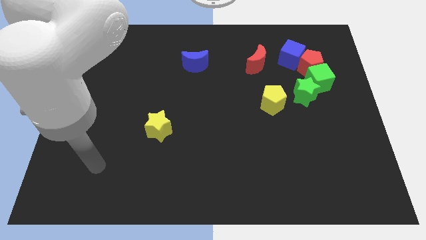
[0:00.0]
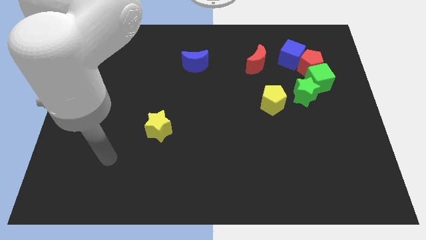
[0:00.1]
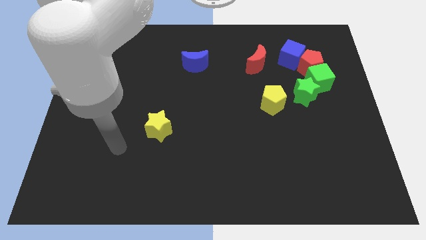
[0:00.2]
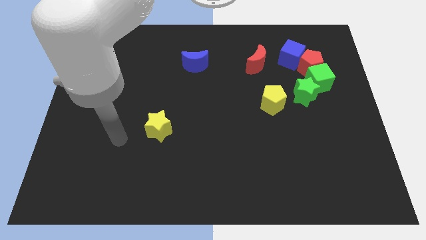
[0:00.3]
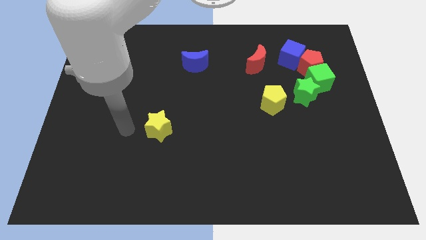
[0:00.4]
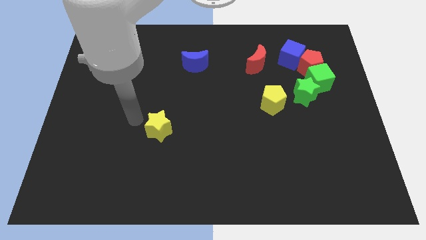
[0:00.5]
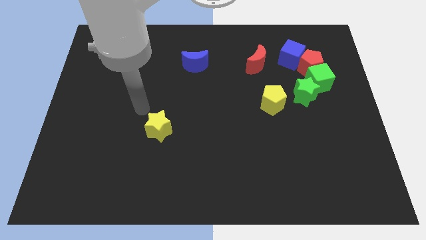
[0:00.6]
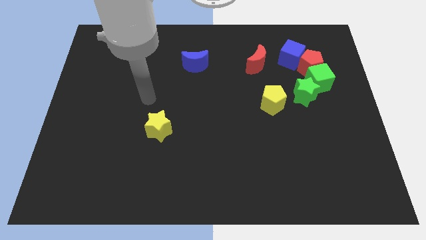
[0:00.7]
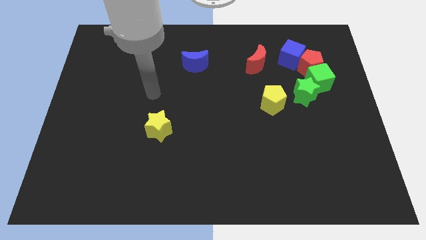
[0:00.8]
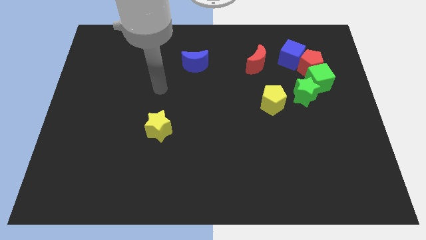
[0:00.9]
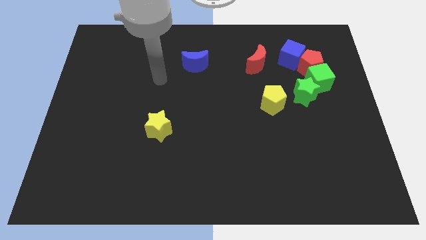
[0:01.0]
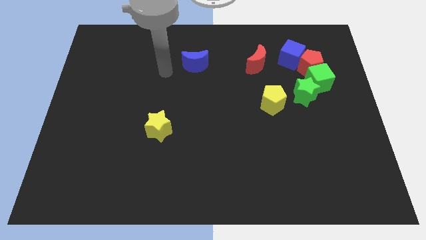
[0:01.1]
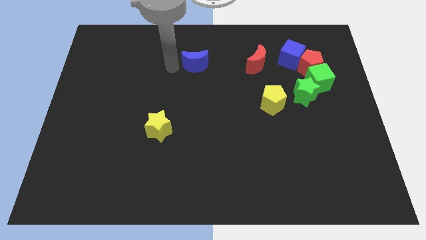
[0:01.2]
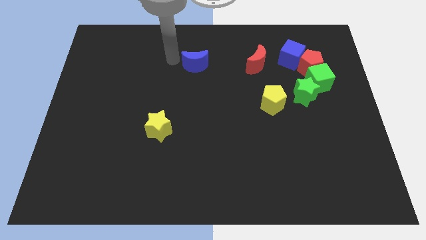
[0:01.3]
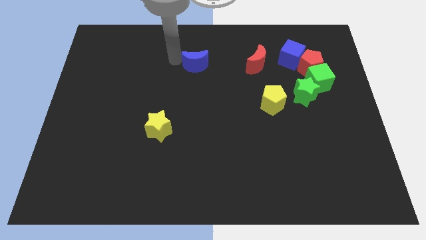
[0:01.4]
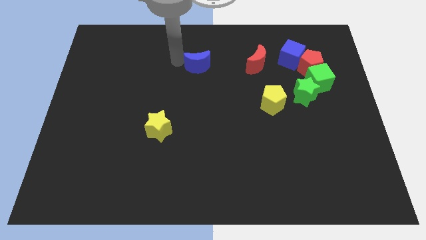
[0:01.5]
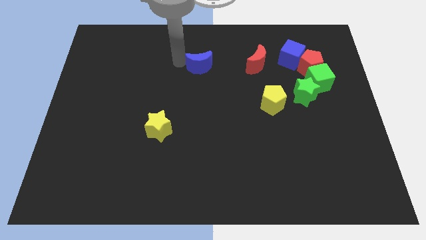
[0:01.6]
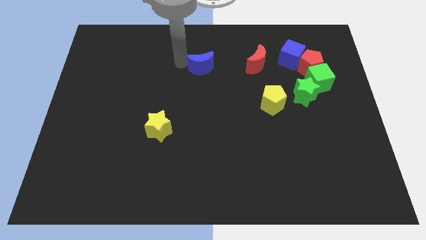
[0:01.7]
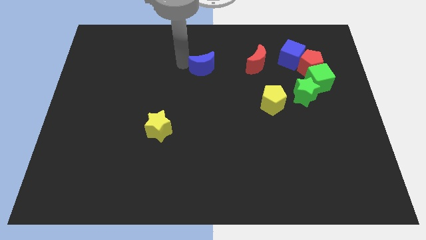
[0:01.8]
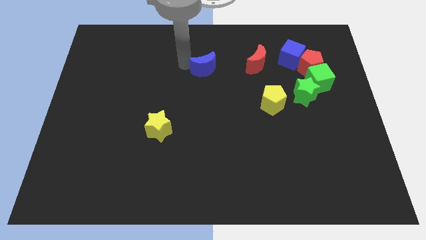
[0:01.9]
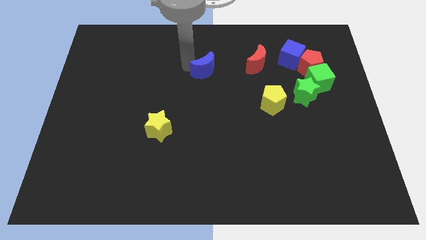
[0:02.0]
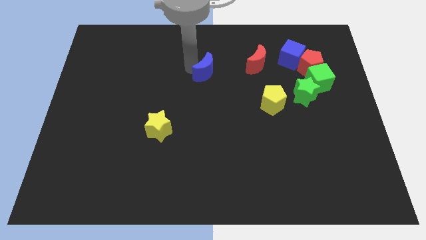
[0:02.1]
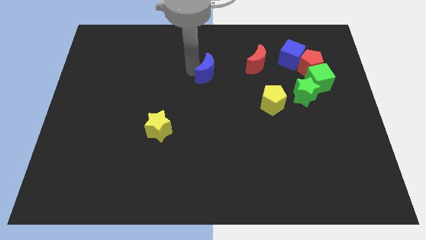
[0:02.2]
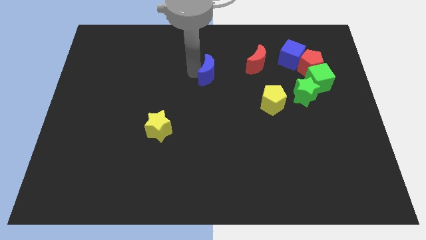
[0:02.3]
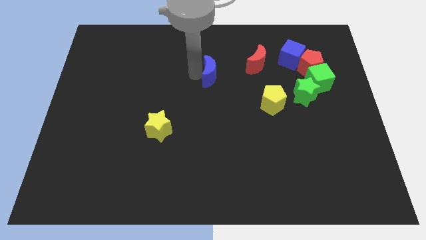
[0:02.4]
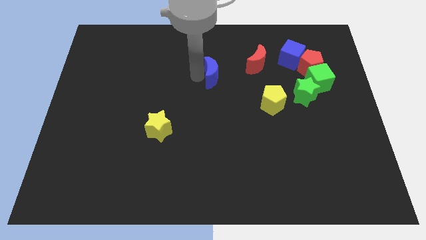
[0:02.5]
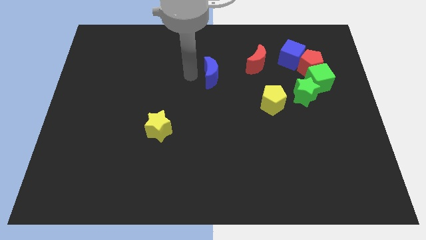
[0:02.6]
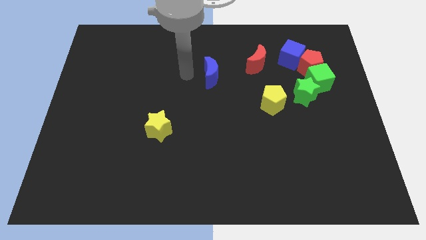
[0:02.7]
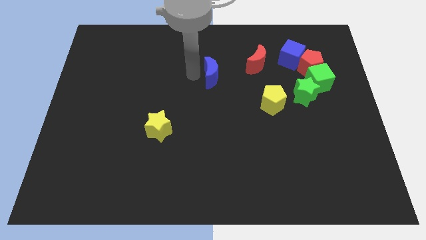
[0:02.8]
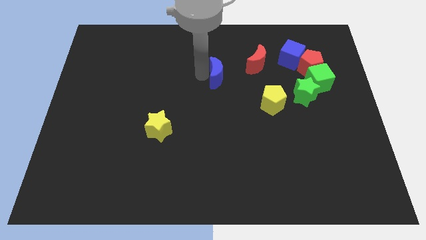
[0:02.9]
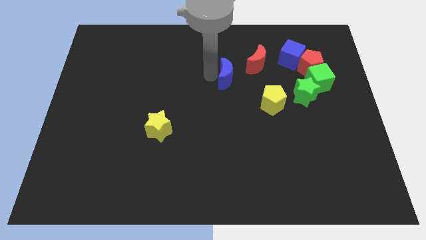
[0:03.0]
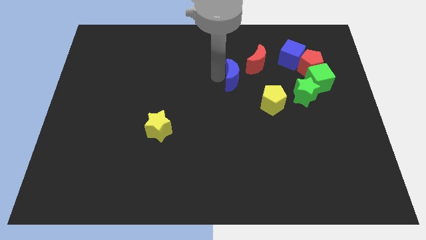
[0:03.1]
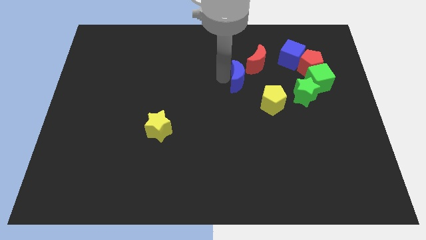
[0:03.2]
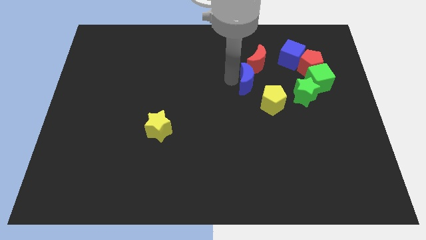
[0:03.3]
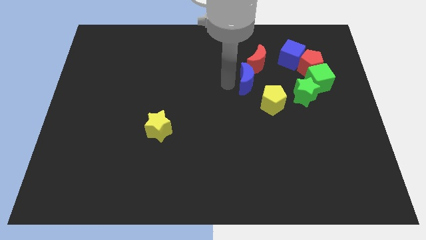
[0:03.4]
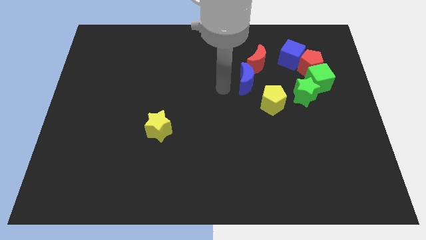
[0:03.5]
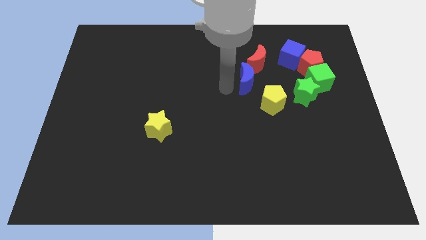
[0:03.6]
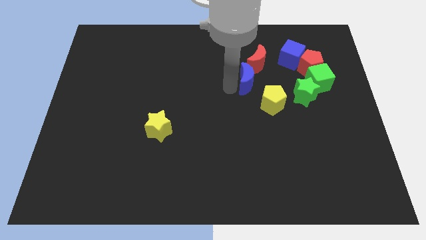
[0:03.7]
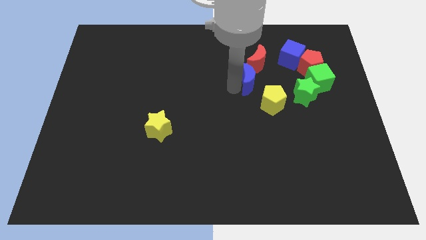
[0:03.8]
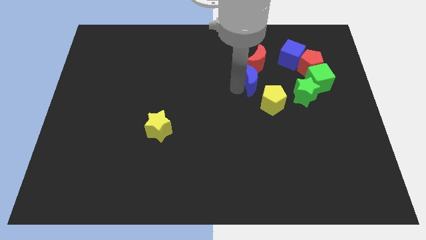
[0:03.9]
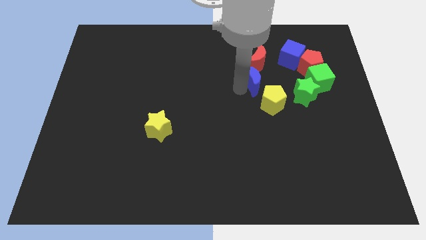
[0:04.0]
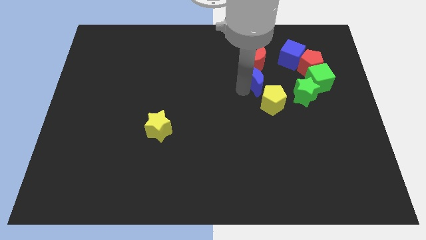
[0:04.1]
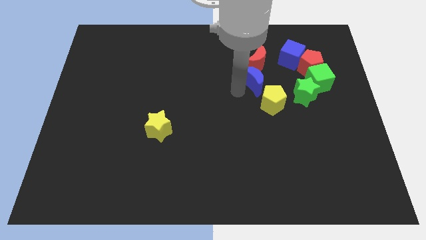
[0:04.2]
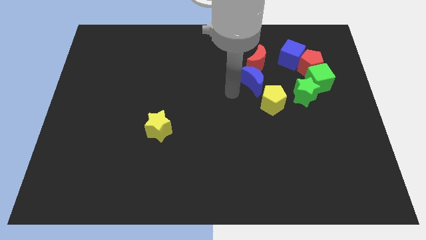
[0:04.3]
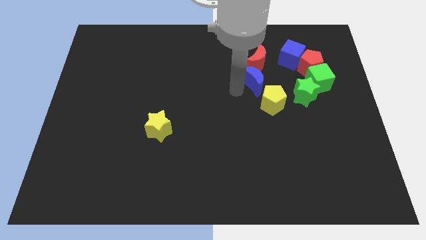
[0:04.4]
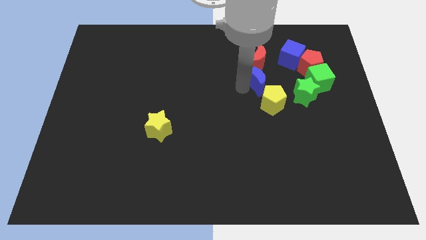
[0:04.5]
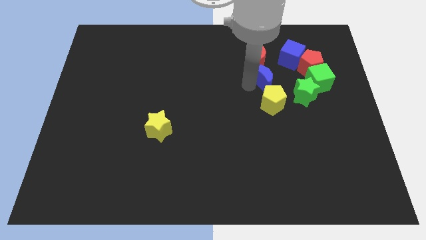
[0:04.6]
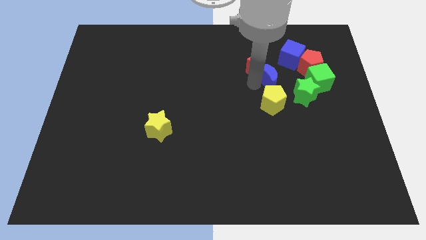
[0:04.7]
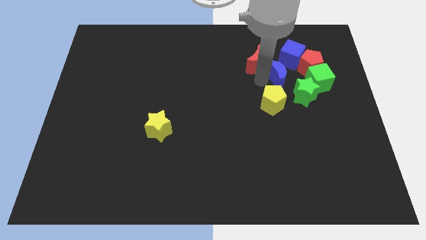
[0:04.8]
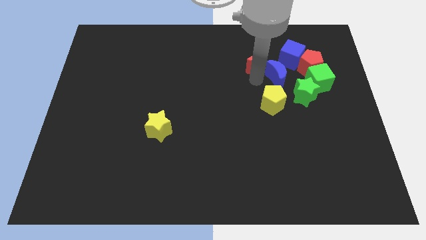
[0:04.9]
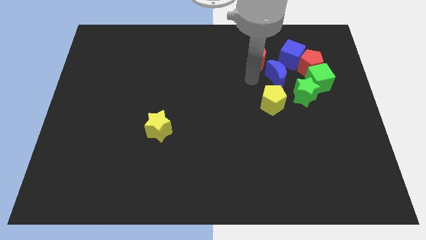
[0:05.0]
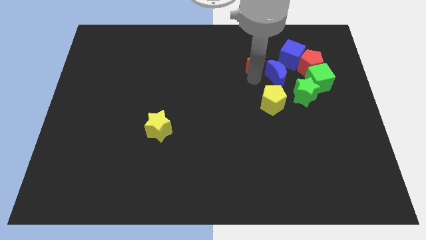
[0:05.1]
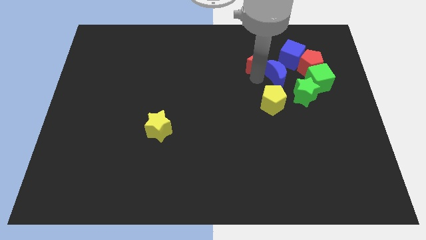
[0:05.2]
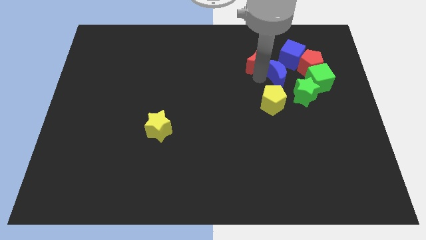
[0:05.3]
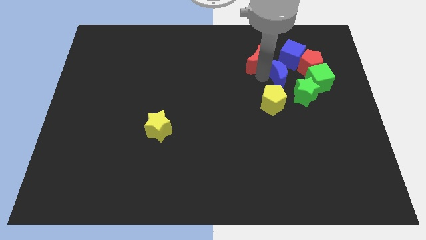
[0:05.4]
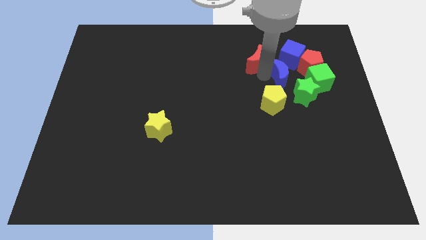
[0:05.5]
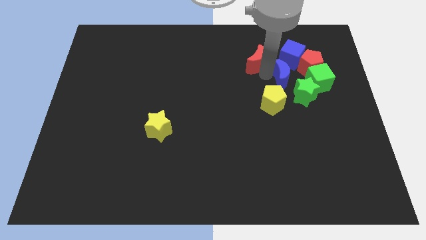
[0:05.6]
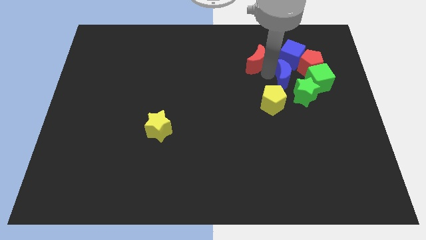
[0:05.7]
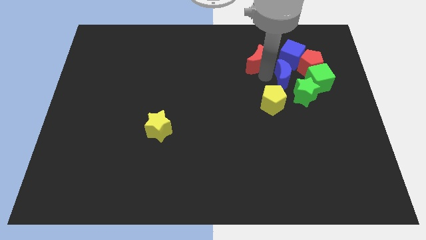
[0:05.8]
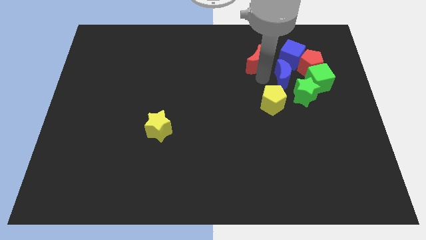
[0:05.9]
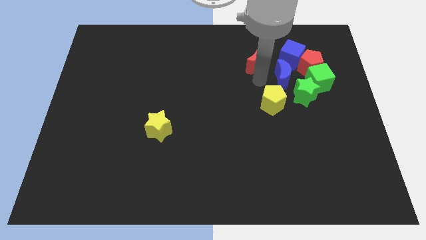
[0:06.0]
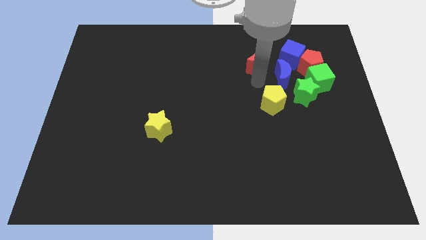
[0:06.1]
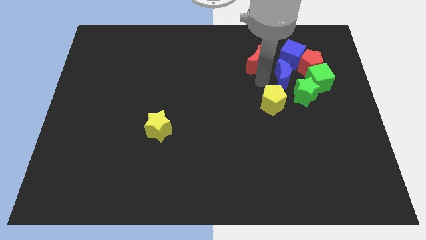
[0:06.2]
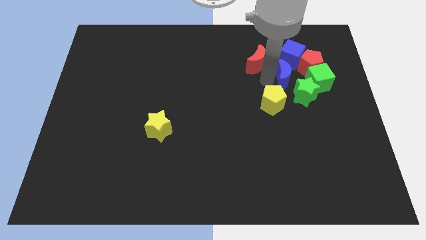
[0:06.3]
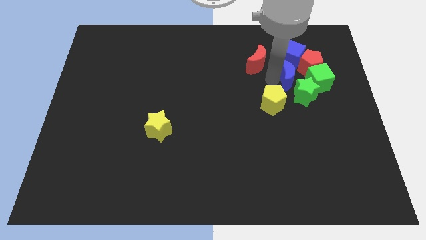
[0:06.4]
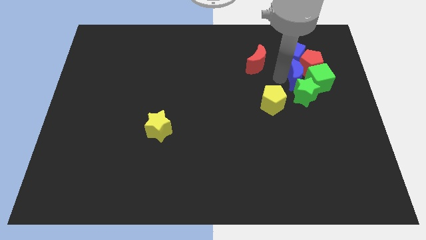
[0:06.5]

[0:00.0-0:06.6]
move the blue moon close to the green cube

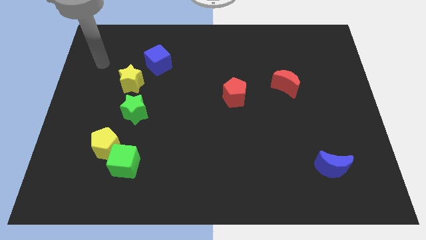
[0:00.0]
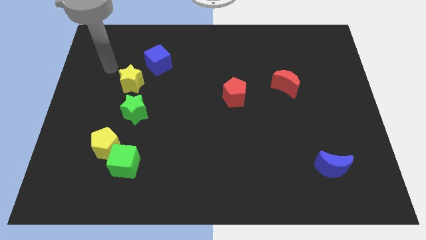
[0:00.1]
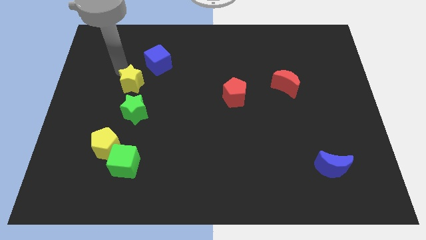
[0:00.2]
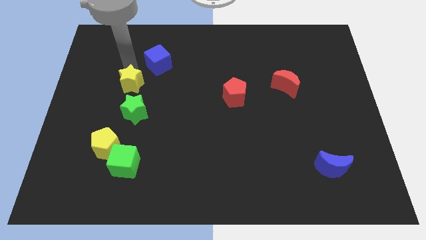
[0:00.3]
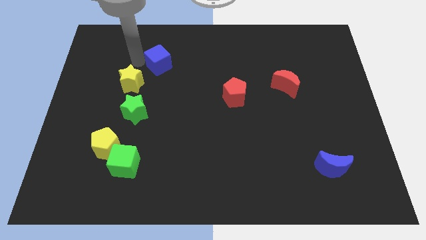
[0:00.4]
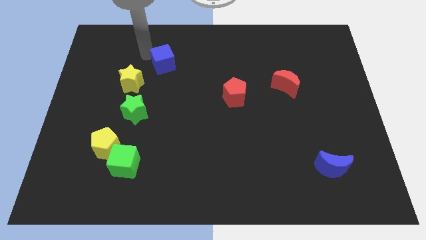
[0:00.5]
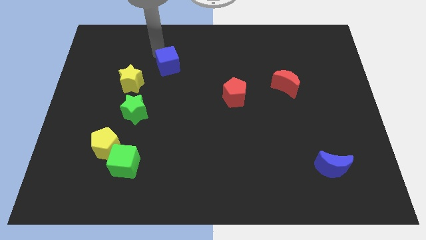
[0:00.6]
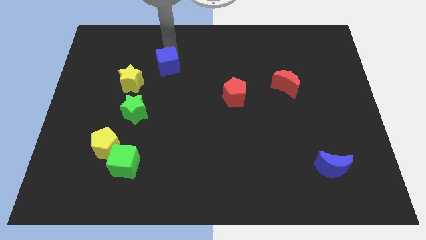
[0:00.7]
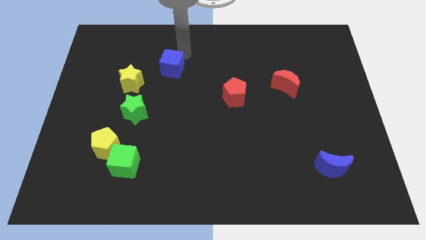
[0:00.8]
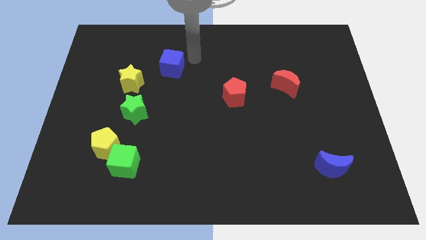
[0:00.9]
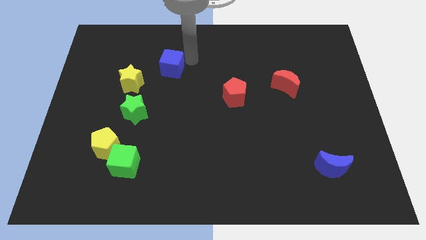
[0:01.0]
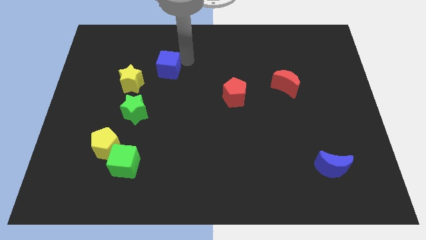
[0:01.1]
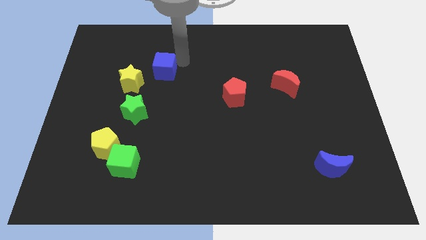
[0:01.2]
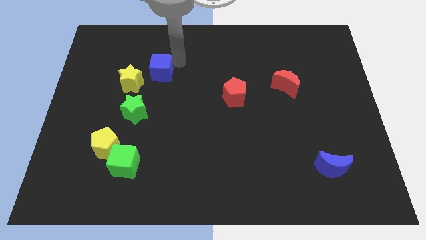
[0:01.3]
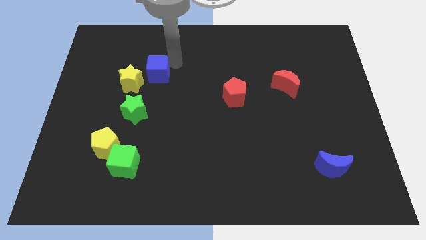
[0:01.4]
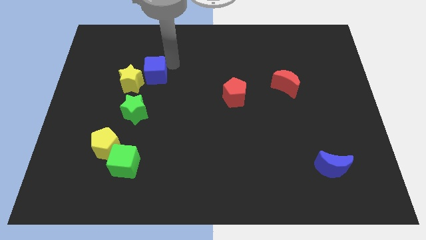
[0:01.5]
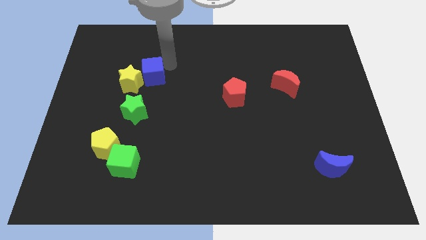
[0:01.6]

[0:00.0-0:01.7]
push the blue cube close to the yellow star
